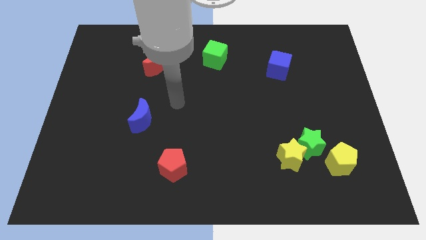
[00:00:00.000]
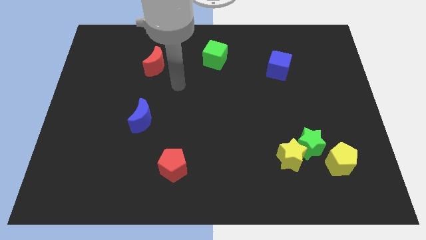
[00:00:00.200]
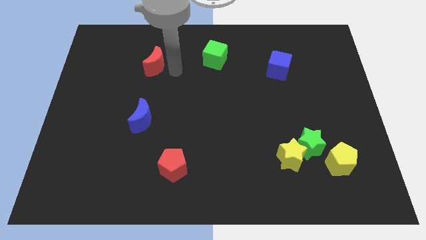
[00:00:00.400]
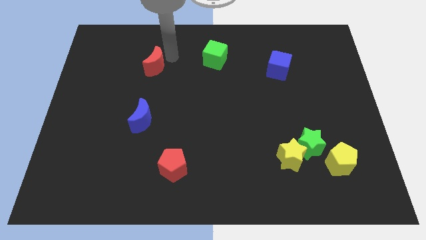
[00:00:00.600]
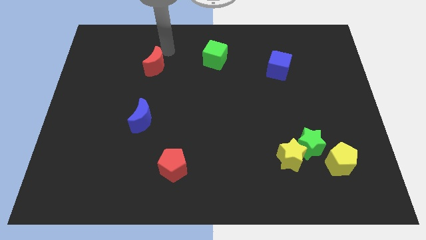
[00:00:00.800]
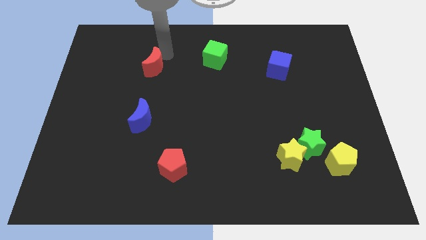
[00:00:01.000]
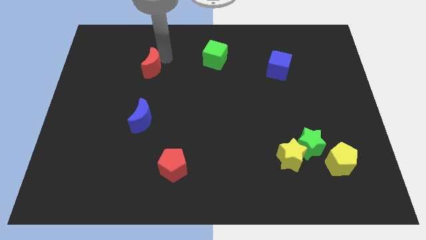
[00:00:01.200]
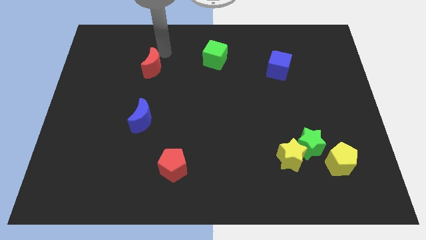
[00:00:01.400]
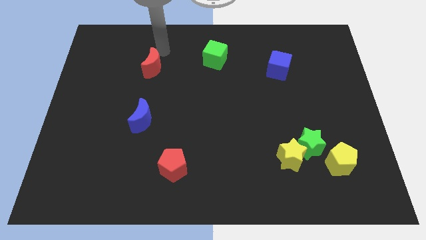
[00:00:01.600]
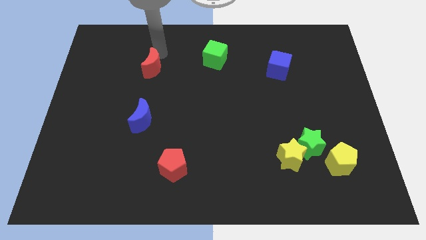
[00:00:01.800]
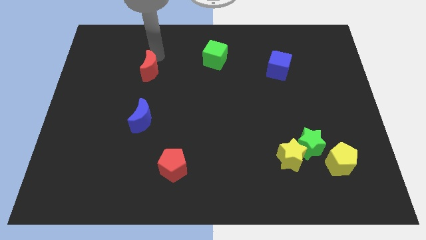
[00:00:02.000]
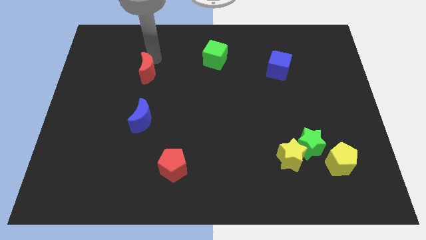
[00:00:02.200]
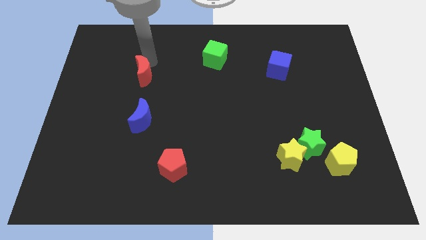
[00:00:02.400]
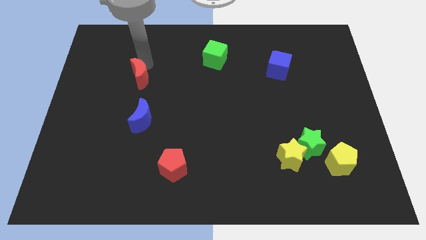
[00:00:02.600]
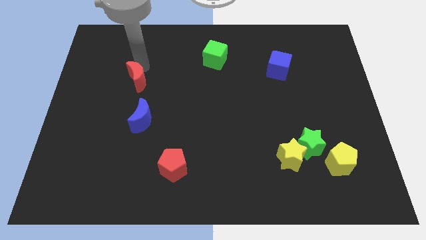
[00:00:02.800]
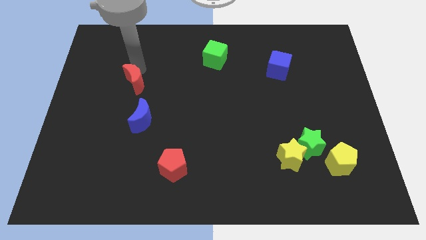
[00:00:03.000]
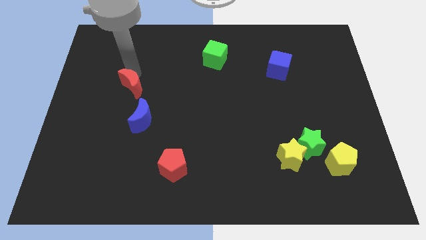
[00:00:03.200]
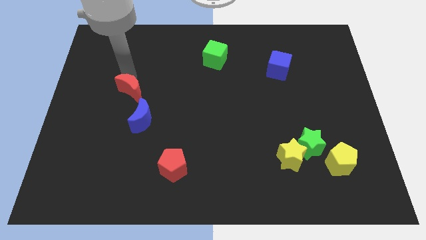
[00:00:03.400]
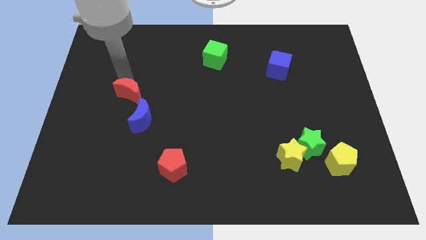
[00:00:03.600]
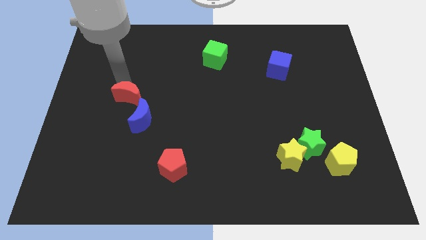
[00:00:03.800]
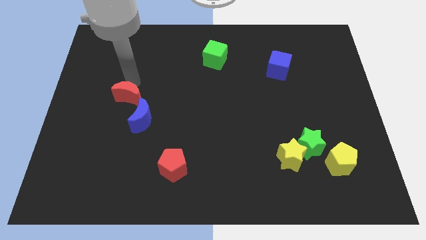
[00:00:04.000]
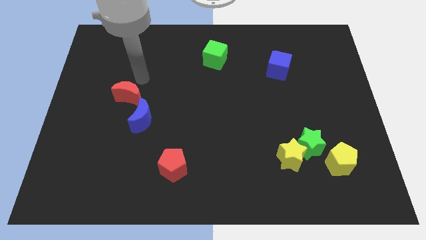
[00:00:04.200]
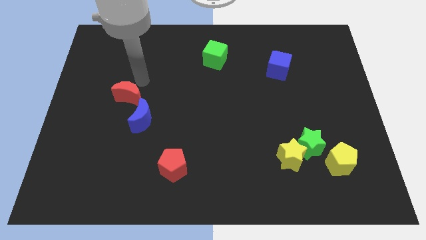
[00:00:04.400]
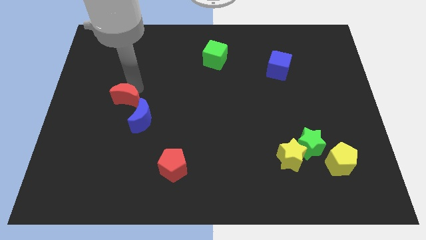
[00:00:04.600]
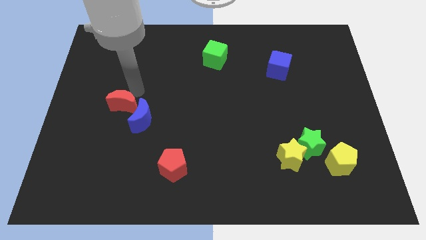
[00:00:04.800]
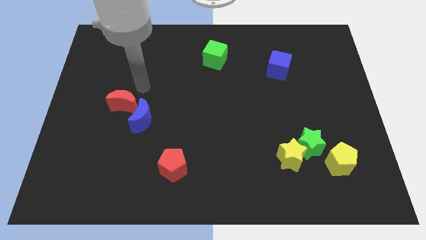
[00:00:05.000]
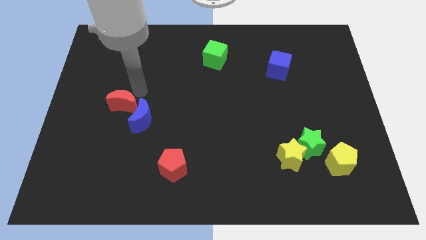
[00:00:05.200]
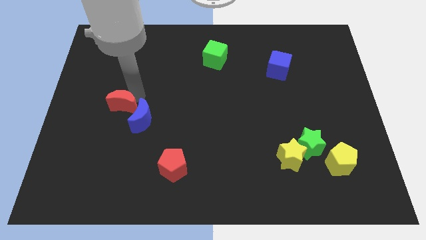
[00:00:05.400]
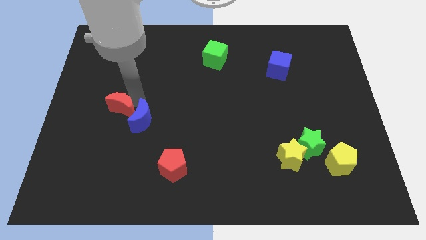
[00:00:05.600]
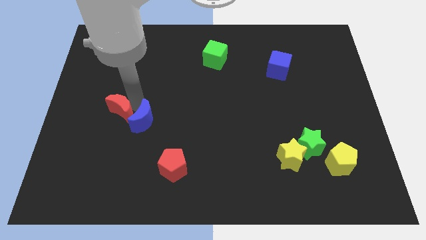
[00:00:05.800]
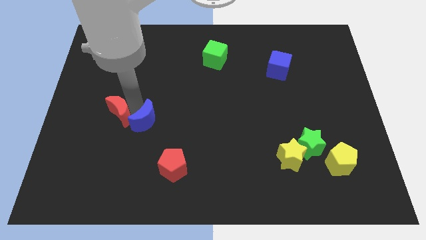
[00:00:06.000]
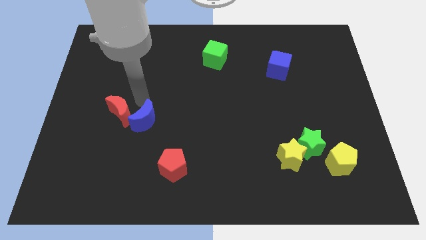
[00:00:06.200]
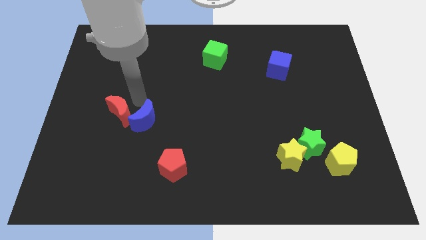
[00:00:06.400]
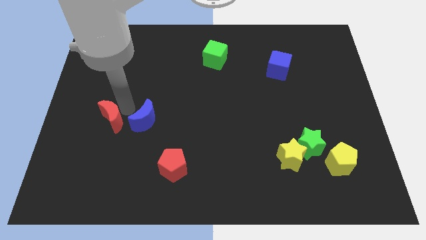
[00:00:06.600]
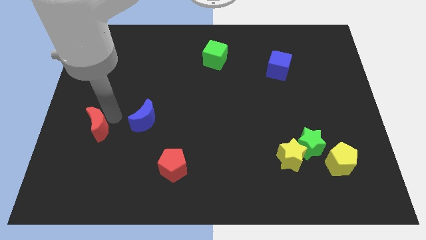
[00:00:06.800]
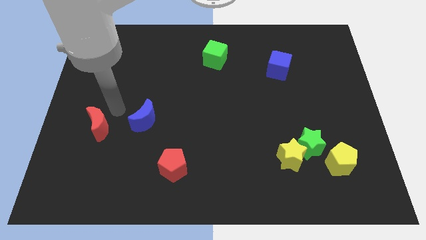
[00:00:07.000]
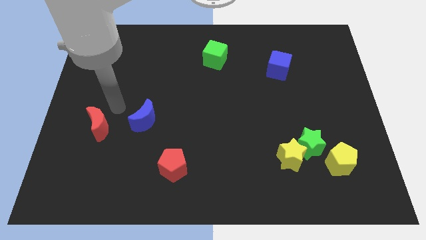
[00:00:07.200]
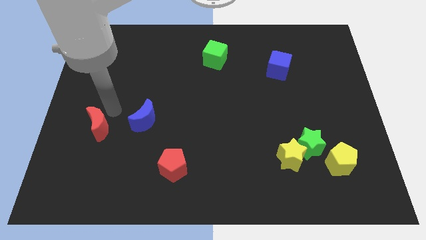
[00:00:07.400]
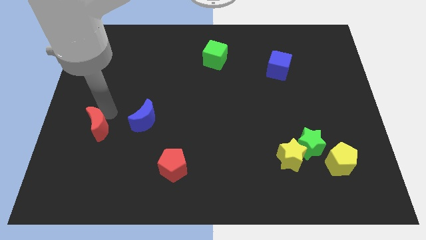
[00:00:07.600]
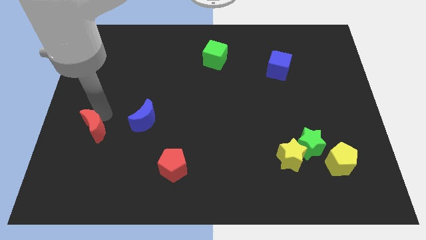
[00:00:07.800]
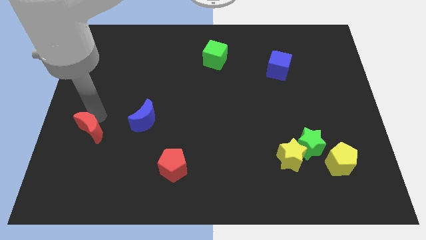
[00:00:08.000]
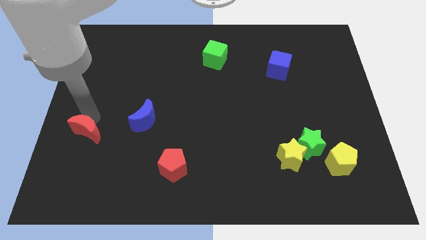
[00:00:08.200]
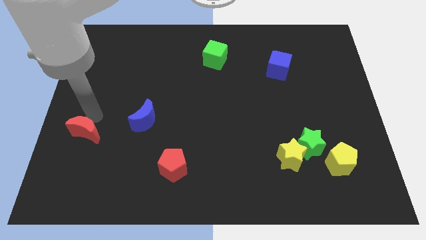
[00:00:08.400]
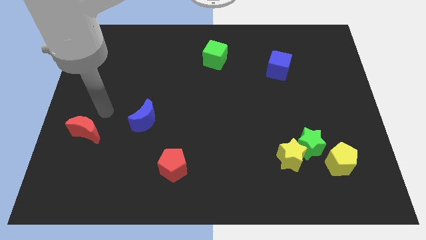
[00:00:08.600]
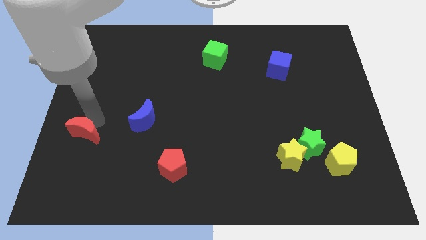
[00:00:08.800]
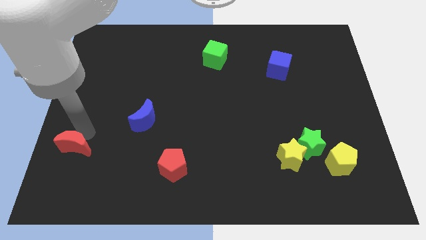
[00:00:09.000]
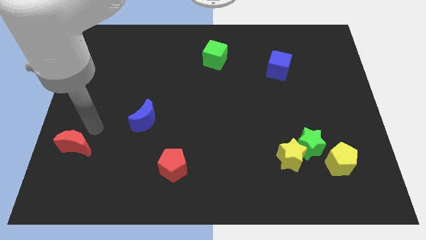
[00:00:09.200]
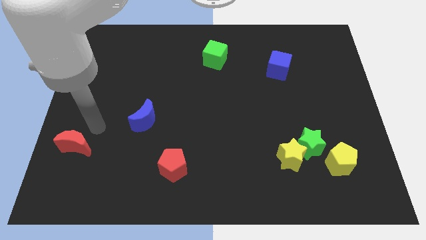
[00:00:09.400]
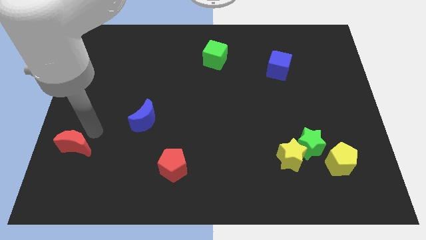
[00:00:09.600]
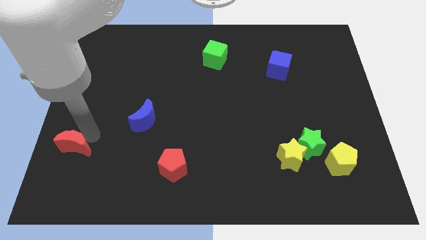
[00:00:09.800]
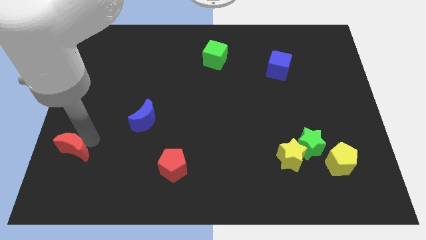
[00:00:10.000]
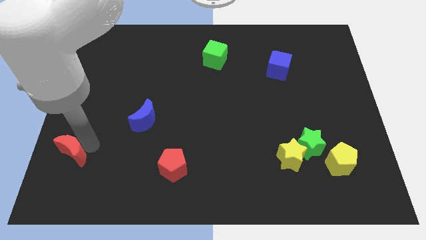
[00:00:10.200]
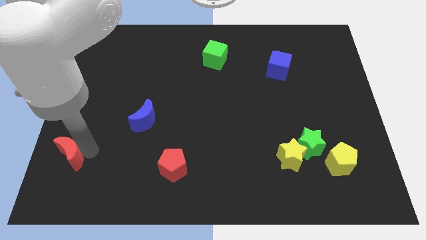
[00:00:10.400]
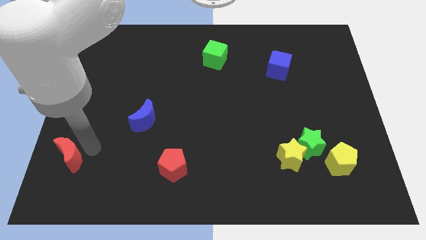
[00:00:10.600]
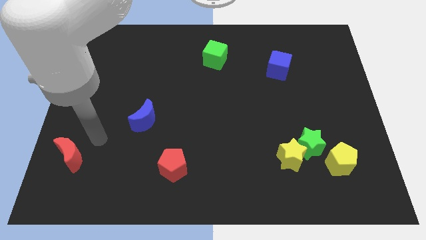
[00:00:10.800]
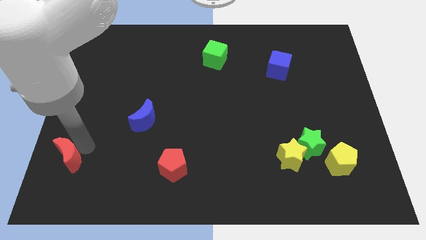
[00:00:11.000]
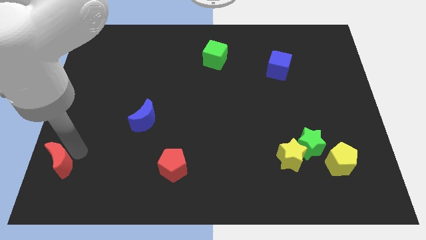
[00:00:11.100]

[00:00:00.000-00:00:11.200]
push the red moon to the bottom left of the board

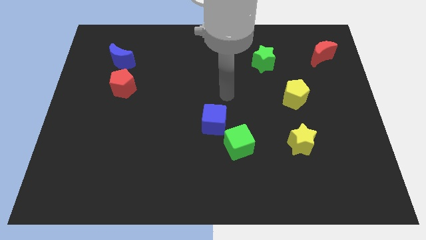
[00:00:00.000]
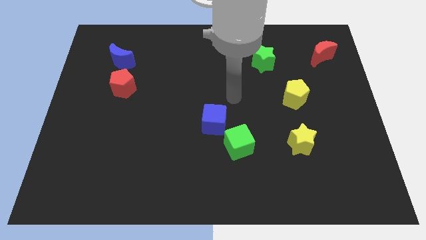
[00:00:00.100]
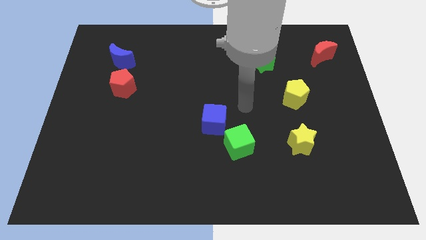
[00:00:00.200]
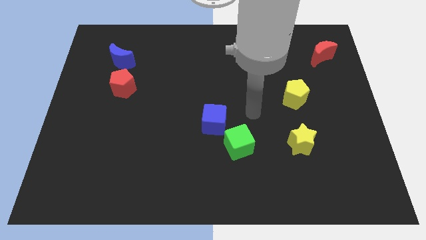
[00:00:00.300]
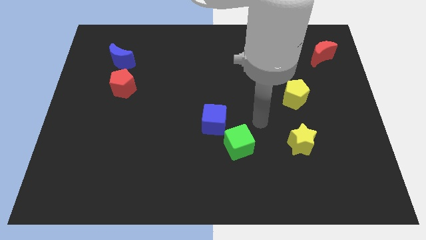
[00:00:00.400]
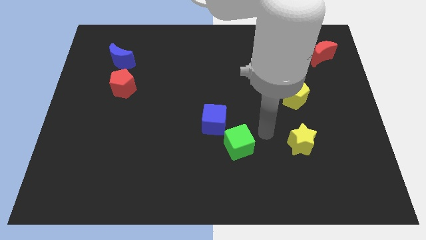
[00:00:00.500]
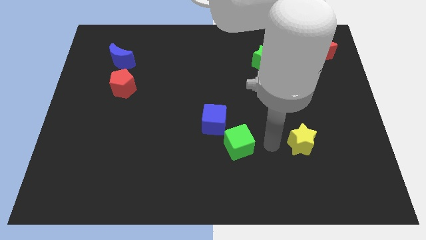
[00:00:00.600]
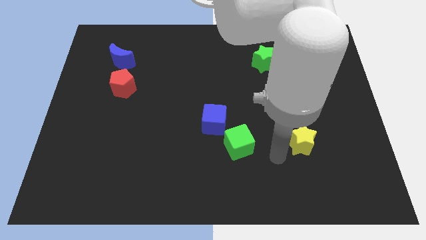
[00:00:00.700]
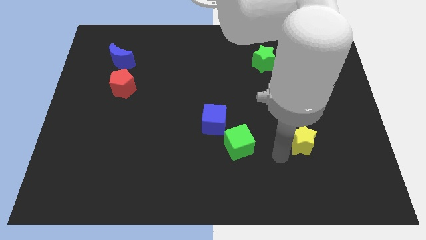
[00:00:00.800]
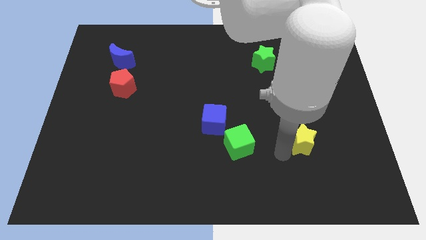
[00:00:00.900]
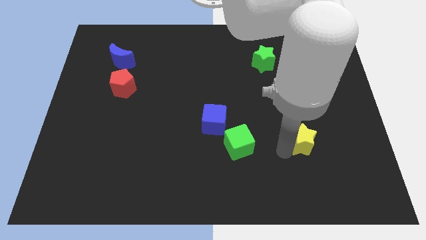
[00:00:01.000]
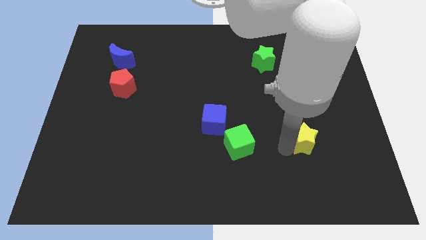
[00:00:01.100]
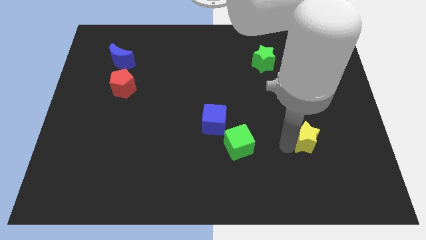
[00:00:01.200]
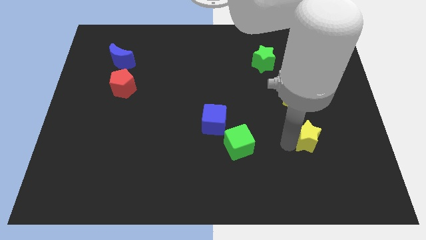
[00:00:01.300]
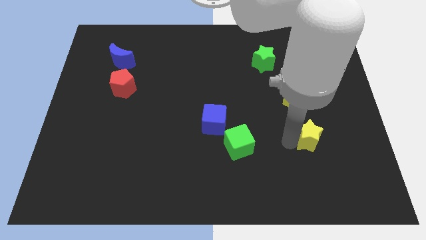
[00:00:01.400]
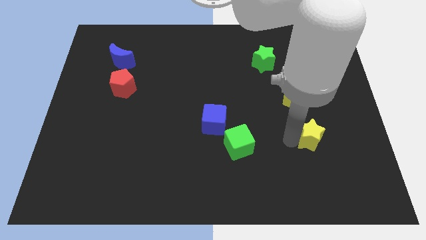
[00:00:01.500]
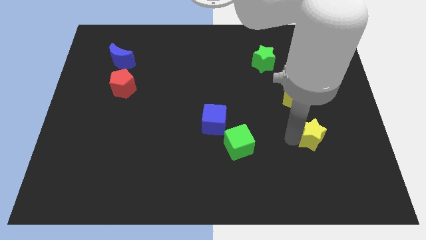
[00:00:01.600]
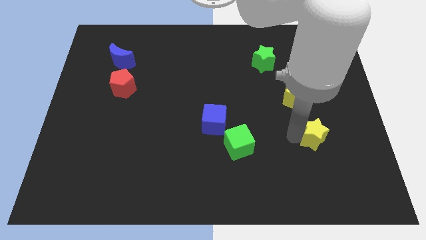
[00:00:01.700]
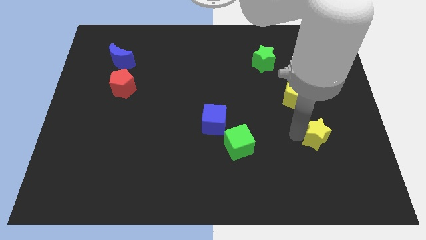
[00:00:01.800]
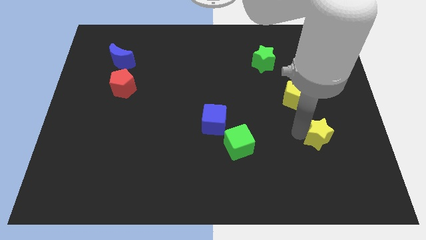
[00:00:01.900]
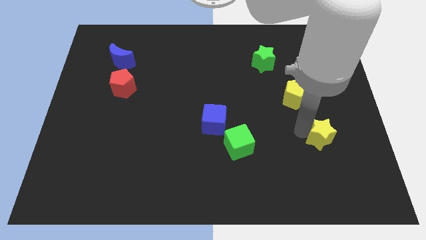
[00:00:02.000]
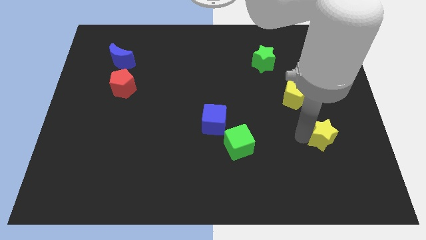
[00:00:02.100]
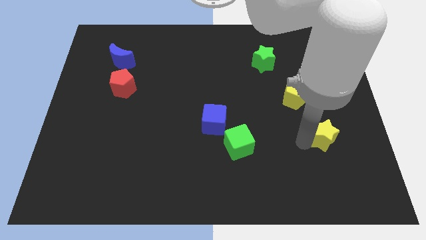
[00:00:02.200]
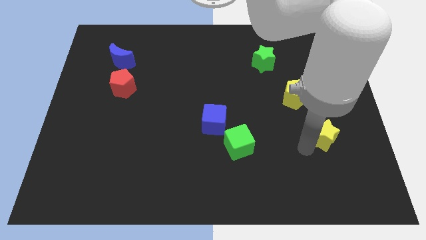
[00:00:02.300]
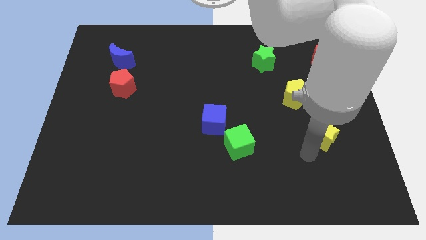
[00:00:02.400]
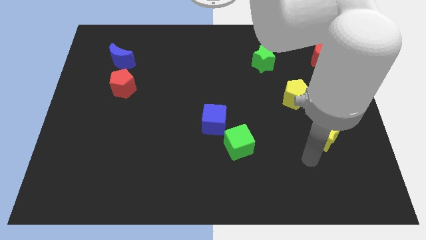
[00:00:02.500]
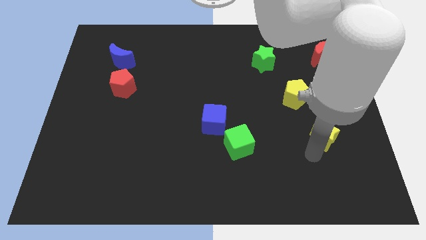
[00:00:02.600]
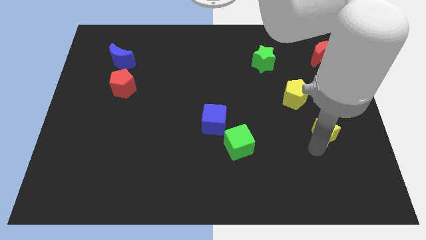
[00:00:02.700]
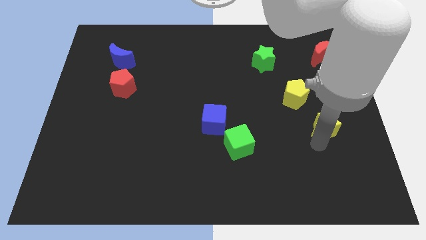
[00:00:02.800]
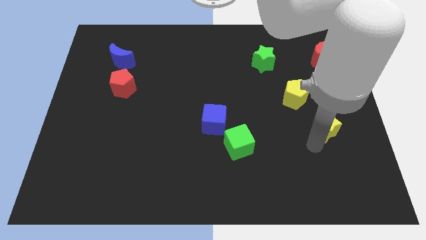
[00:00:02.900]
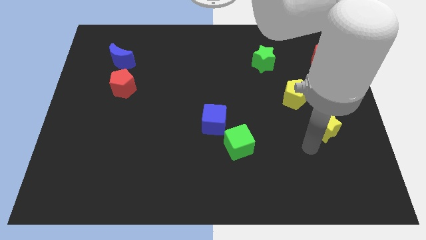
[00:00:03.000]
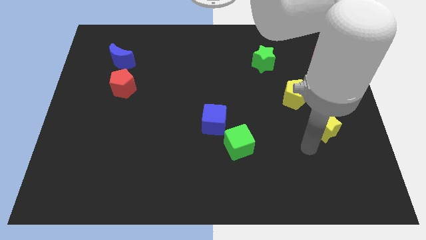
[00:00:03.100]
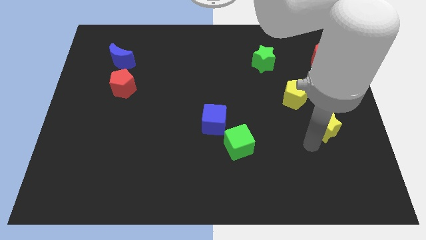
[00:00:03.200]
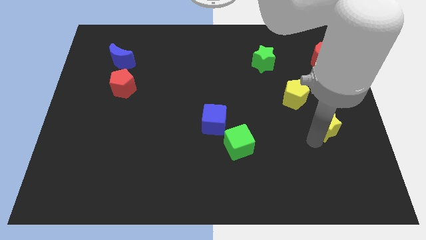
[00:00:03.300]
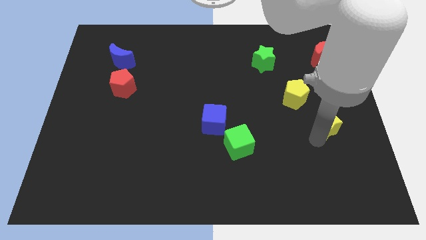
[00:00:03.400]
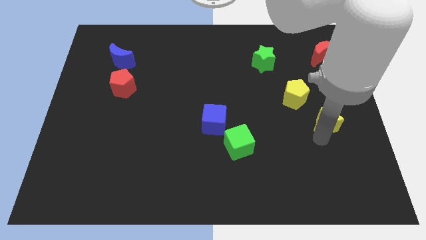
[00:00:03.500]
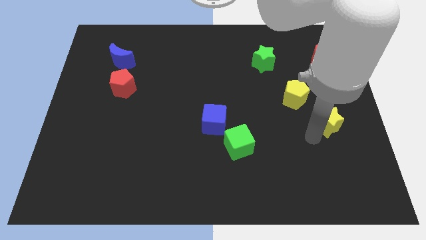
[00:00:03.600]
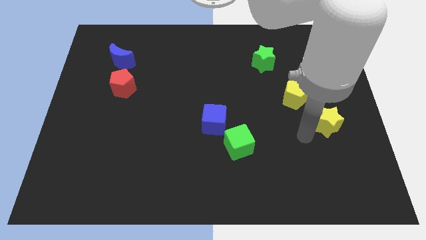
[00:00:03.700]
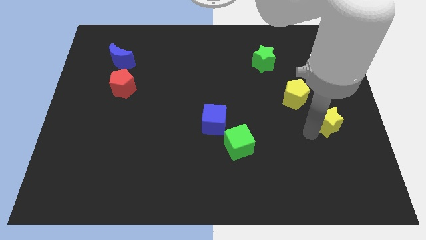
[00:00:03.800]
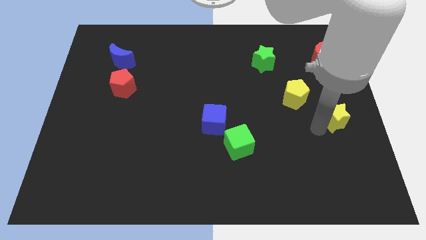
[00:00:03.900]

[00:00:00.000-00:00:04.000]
put the yellow star to the right side of the board
